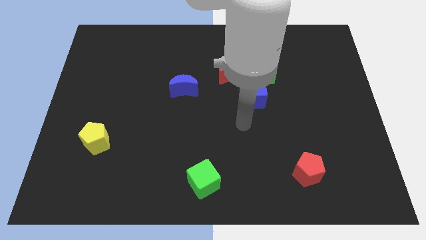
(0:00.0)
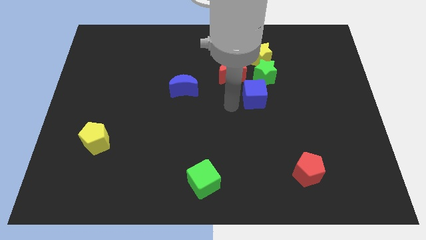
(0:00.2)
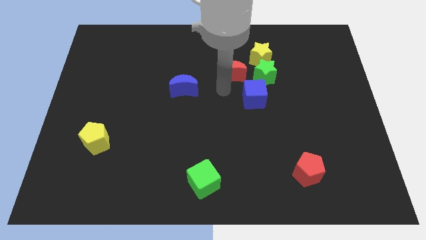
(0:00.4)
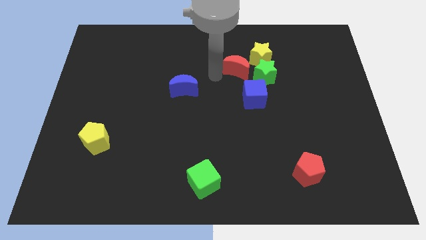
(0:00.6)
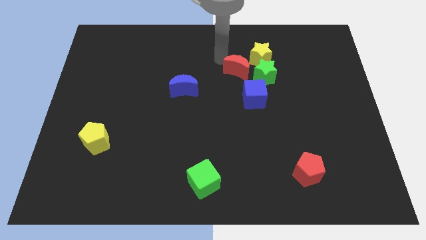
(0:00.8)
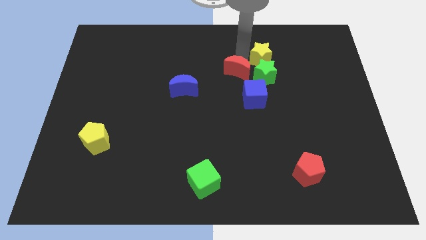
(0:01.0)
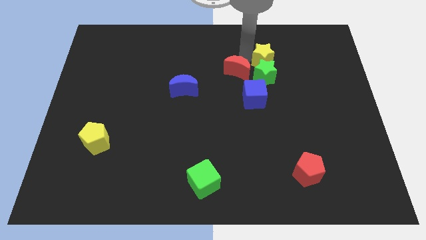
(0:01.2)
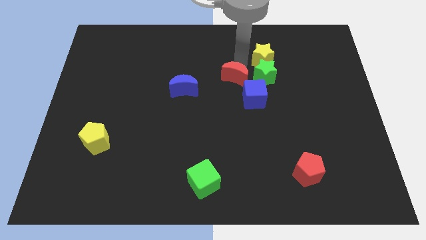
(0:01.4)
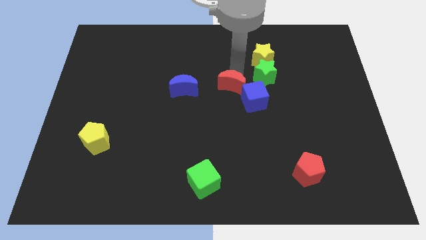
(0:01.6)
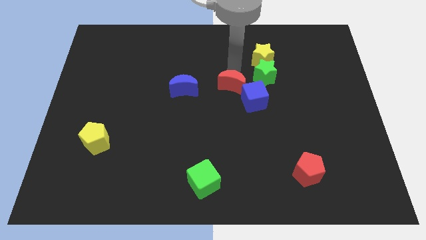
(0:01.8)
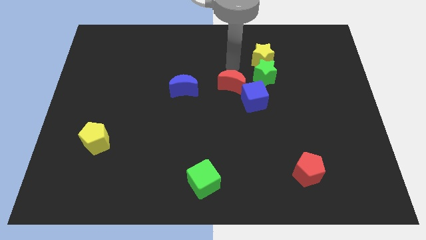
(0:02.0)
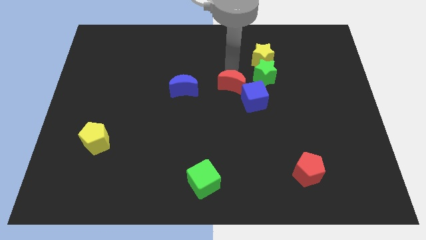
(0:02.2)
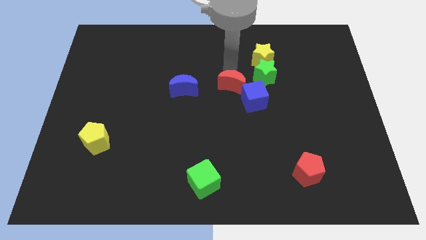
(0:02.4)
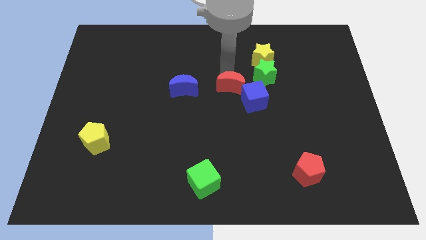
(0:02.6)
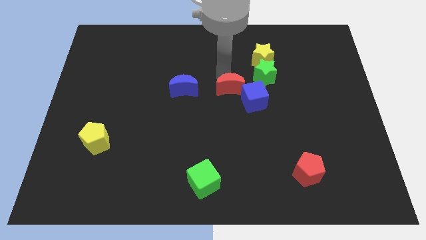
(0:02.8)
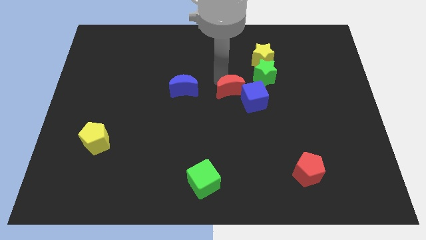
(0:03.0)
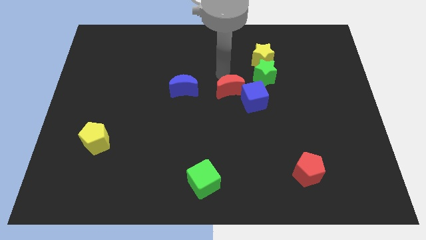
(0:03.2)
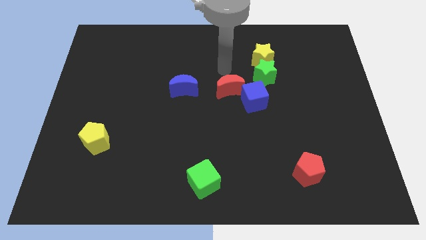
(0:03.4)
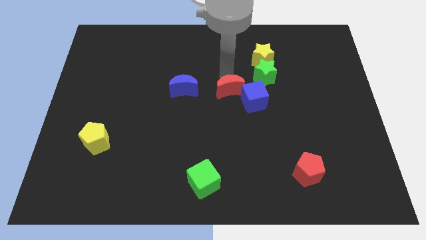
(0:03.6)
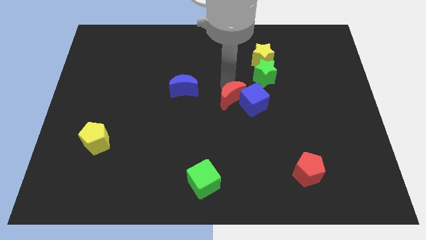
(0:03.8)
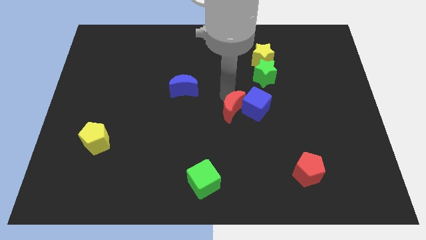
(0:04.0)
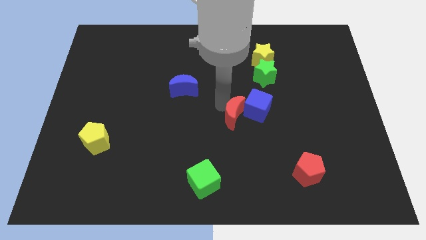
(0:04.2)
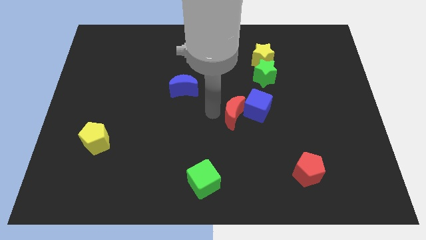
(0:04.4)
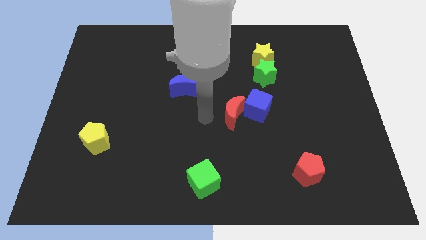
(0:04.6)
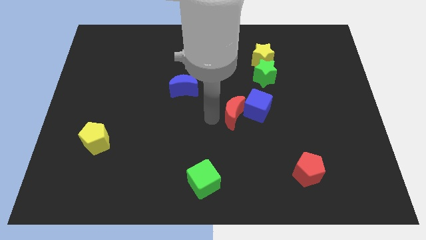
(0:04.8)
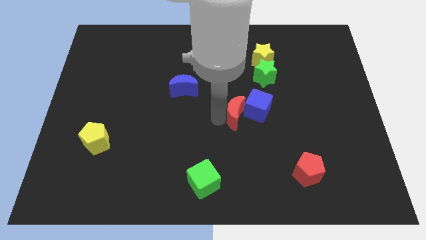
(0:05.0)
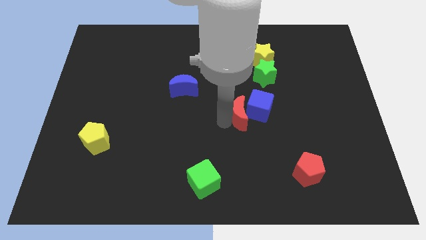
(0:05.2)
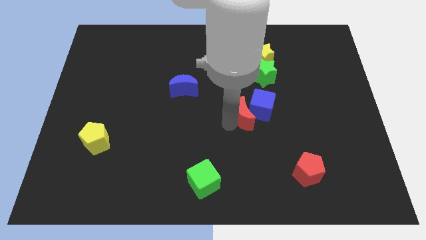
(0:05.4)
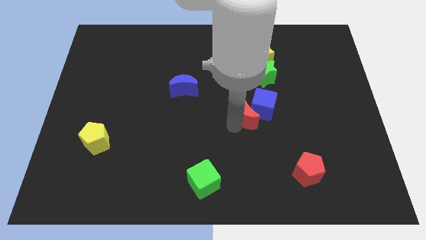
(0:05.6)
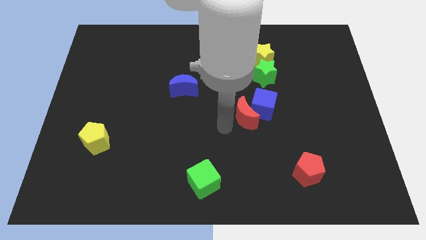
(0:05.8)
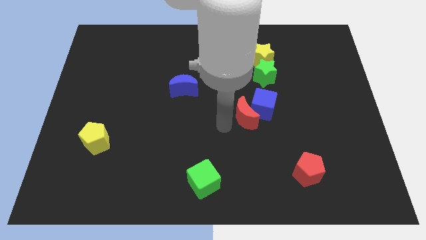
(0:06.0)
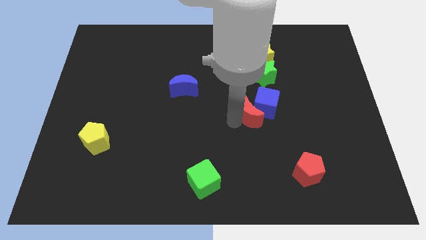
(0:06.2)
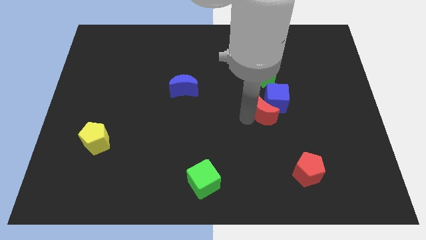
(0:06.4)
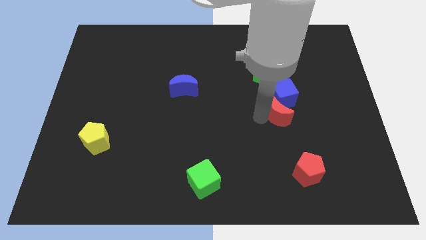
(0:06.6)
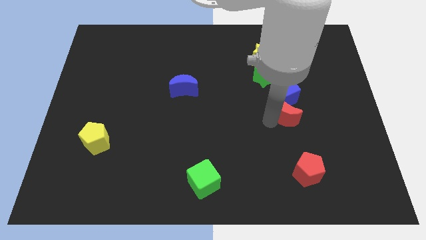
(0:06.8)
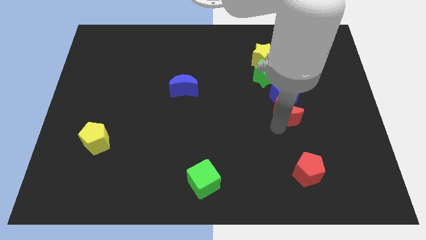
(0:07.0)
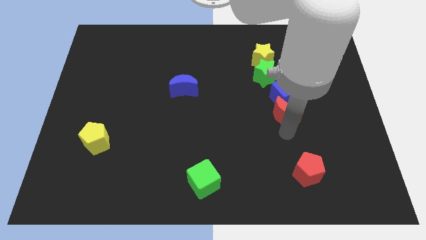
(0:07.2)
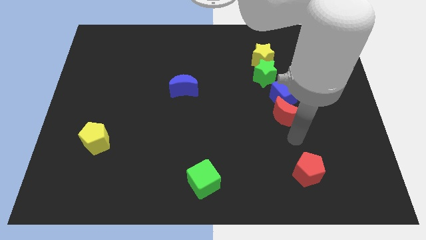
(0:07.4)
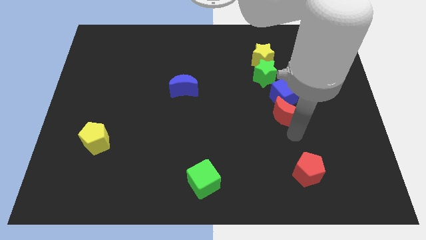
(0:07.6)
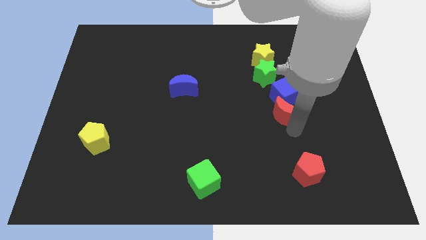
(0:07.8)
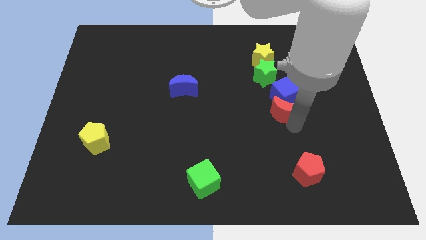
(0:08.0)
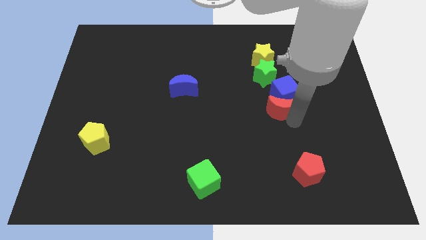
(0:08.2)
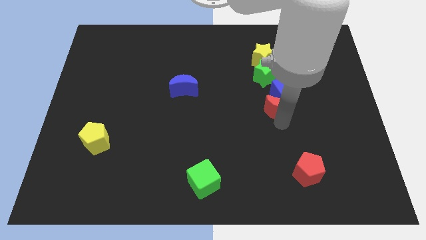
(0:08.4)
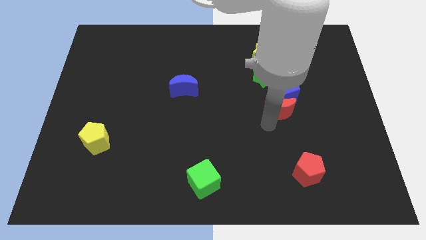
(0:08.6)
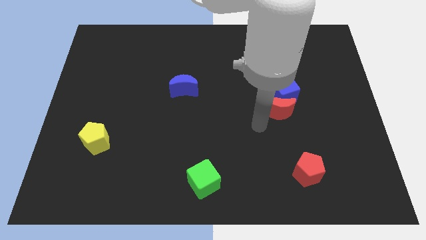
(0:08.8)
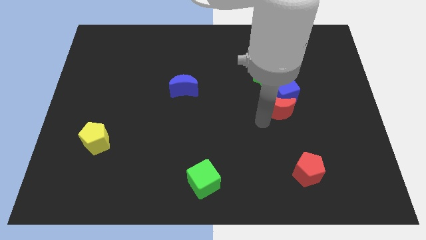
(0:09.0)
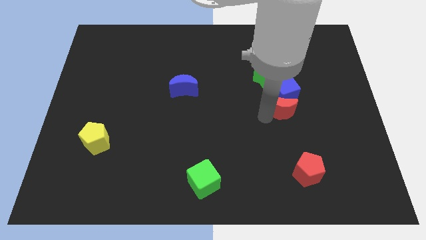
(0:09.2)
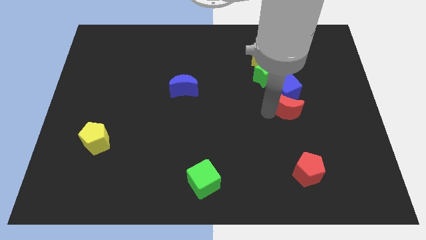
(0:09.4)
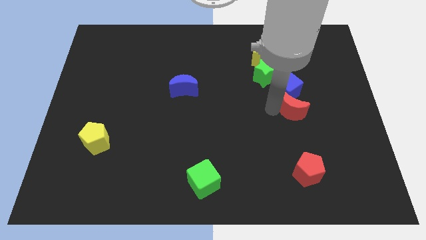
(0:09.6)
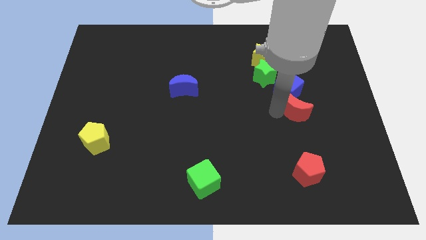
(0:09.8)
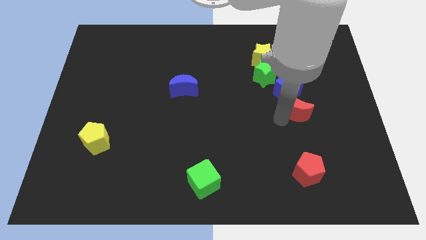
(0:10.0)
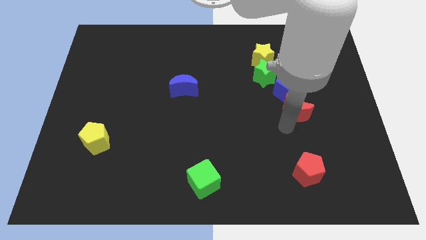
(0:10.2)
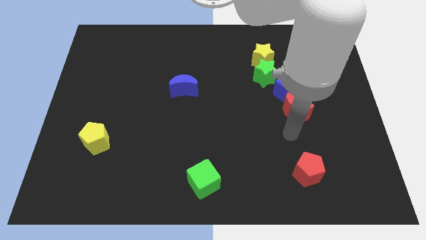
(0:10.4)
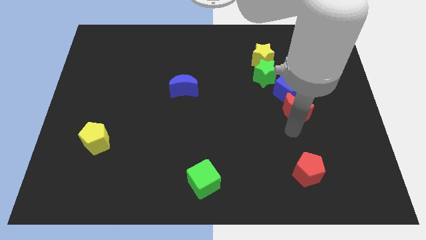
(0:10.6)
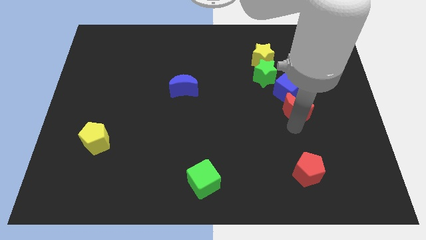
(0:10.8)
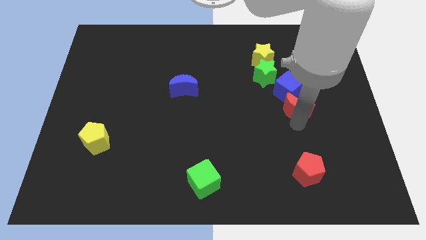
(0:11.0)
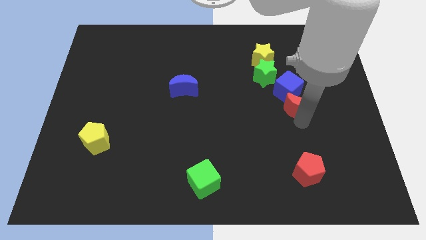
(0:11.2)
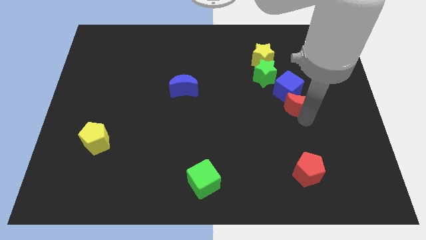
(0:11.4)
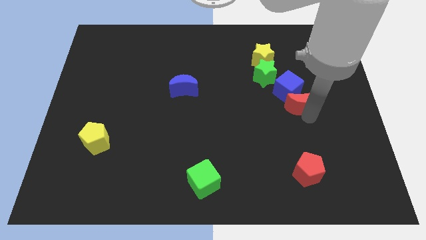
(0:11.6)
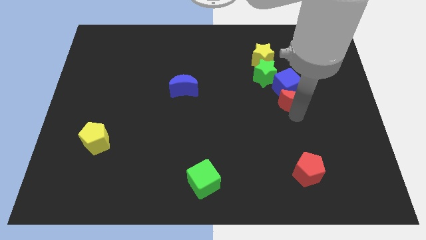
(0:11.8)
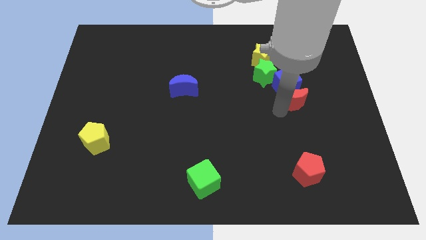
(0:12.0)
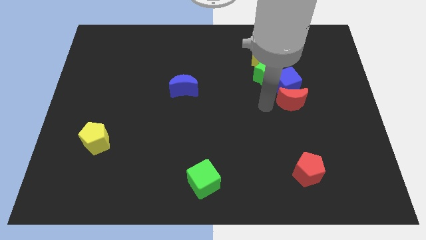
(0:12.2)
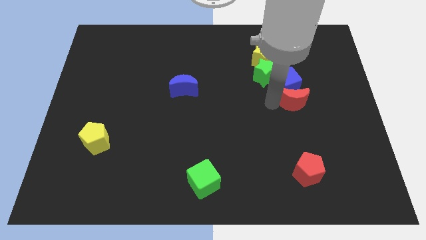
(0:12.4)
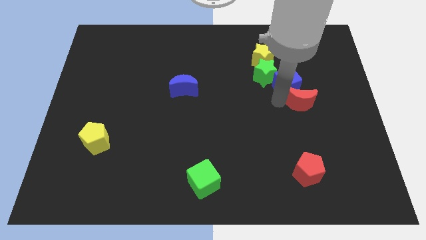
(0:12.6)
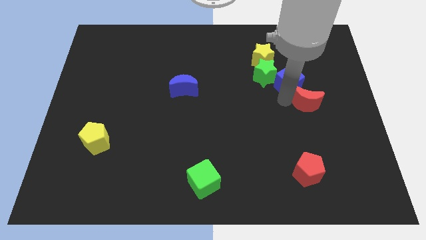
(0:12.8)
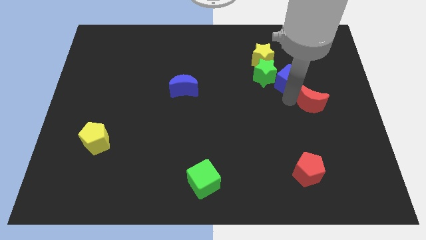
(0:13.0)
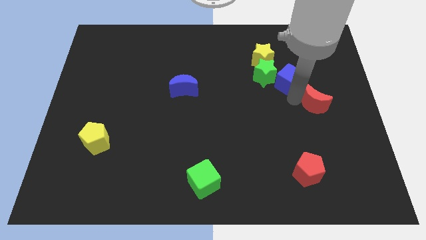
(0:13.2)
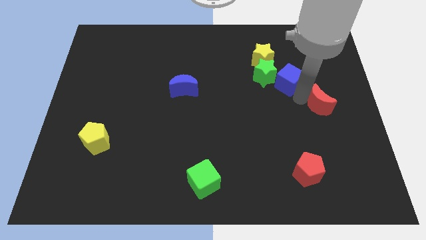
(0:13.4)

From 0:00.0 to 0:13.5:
push the red moon to the center right

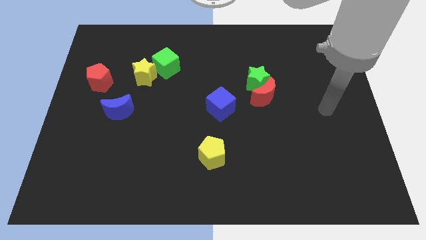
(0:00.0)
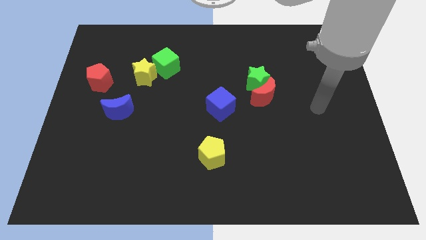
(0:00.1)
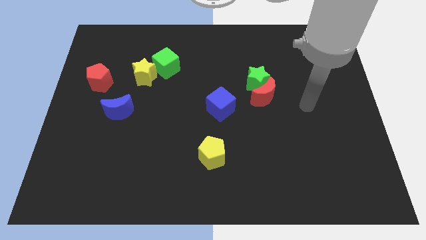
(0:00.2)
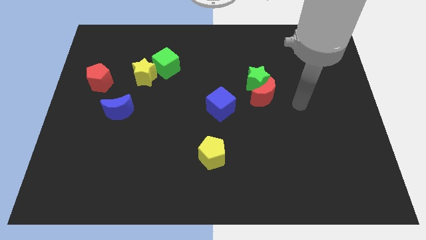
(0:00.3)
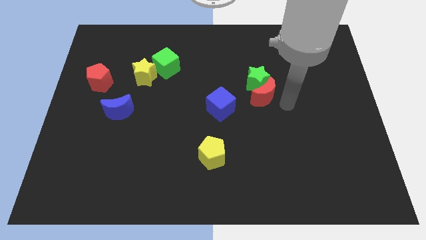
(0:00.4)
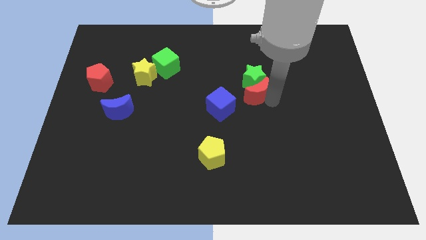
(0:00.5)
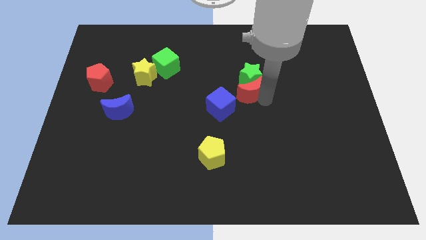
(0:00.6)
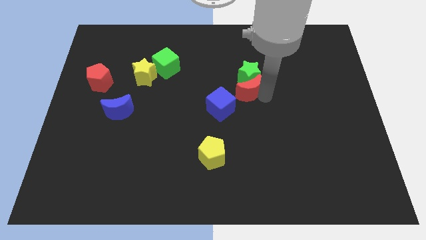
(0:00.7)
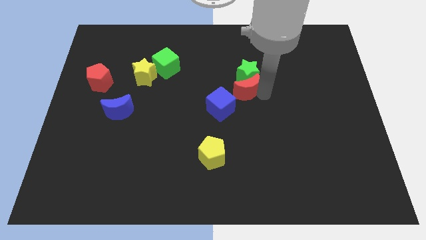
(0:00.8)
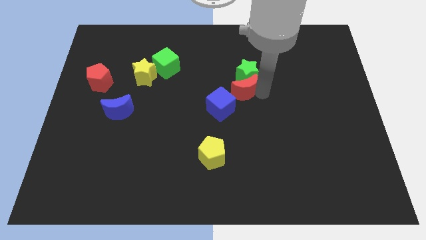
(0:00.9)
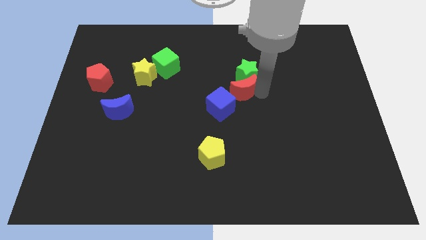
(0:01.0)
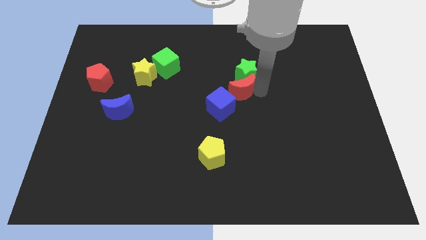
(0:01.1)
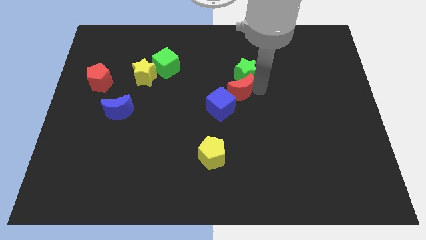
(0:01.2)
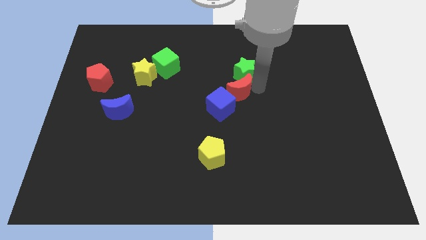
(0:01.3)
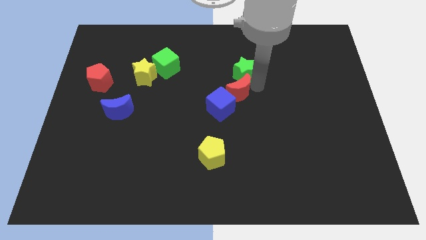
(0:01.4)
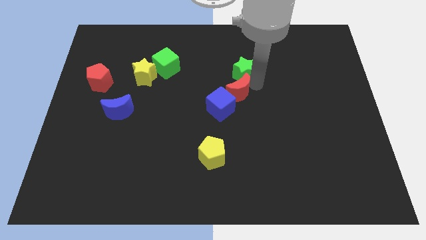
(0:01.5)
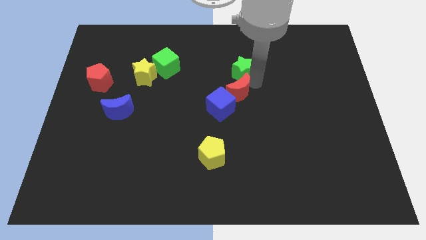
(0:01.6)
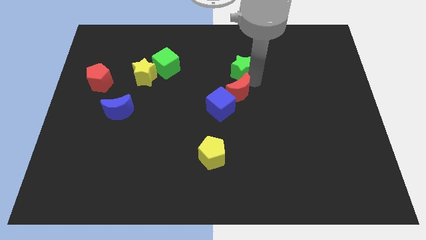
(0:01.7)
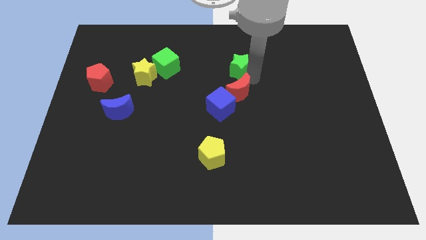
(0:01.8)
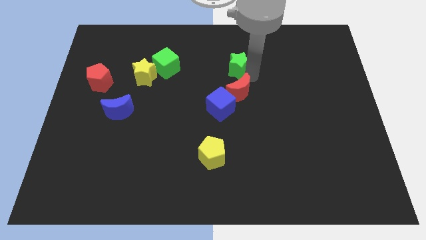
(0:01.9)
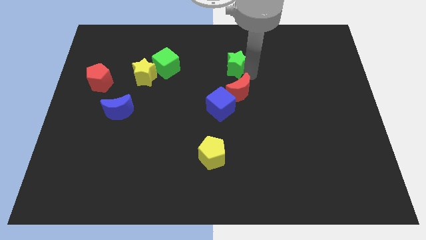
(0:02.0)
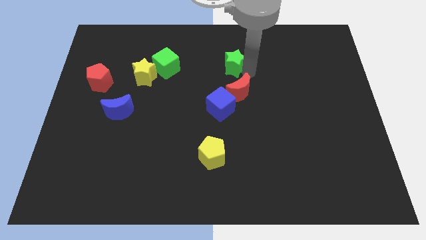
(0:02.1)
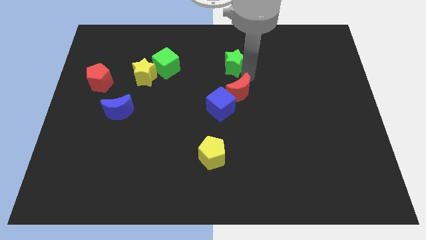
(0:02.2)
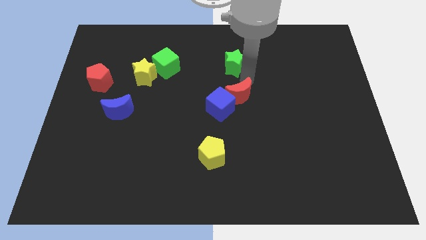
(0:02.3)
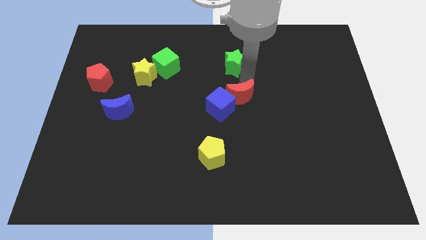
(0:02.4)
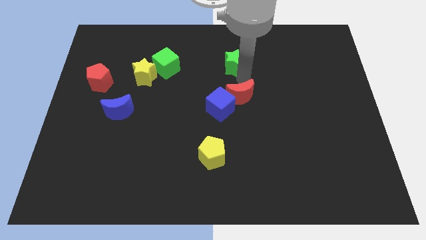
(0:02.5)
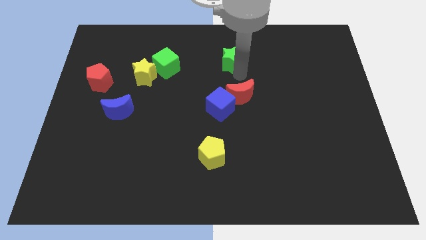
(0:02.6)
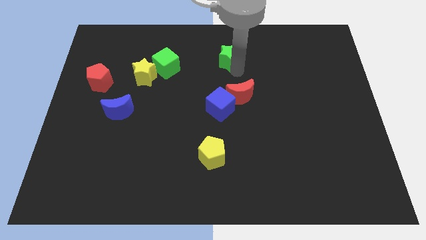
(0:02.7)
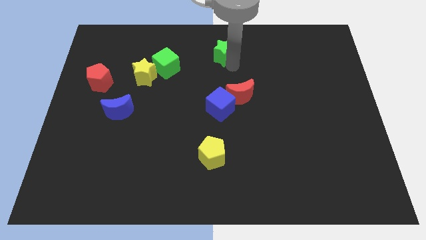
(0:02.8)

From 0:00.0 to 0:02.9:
slide the green star to the towards your base
